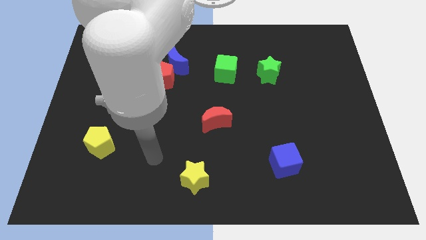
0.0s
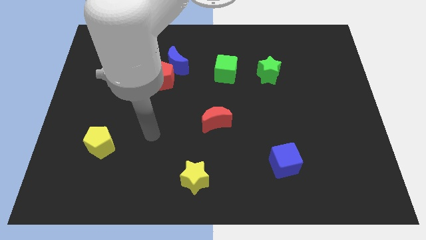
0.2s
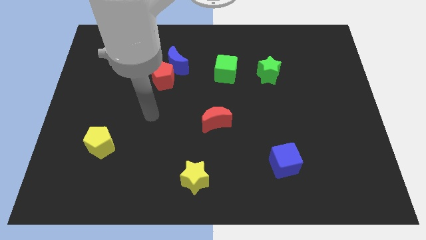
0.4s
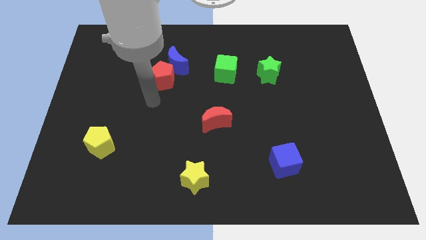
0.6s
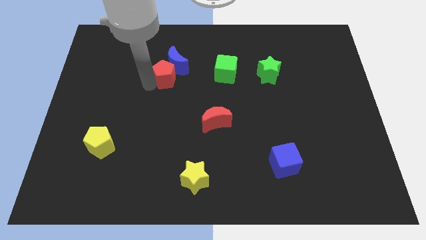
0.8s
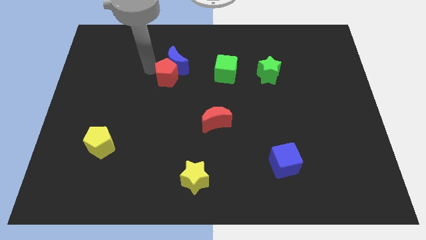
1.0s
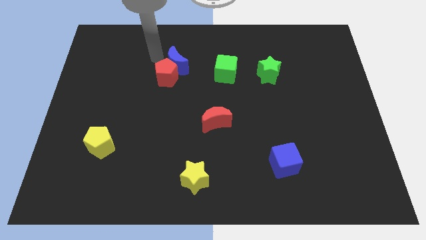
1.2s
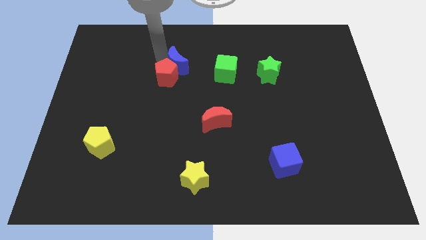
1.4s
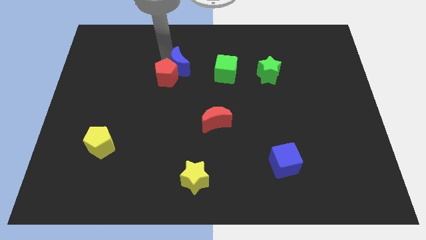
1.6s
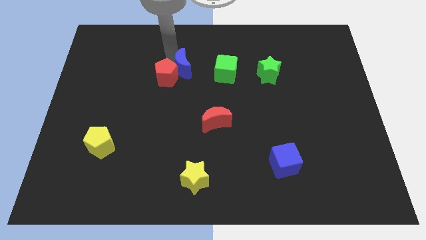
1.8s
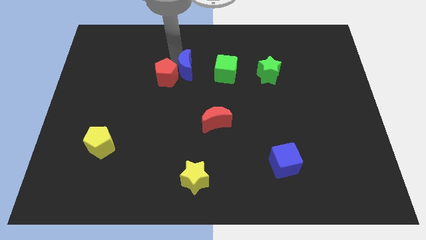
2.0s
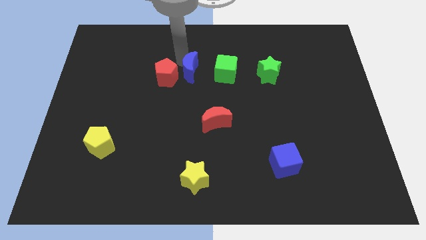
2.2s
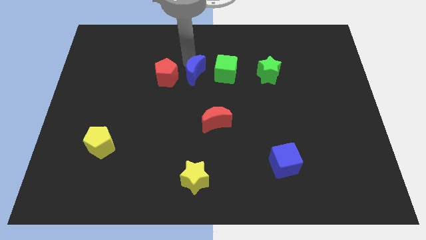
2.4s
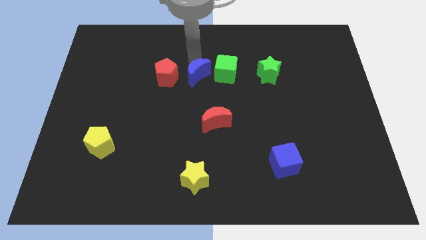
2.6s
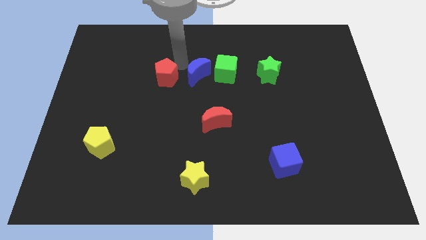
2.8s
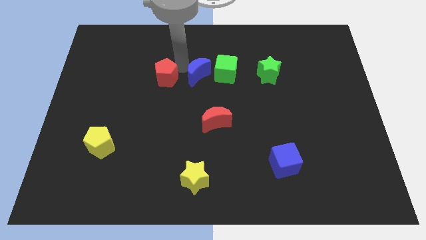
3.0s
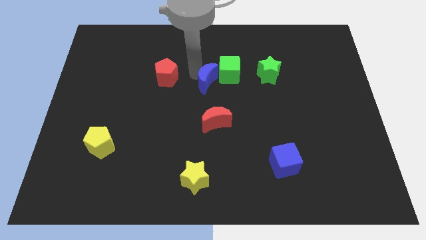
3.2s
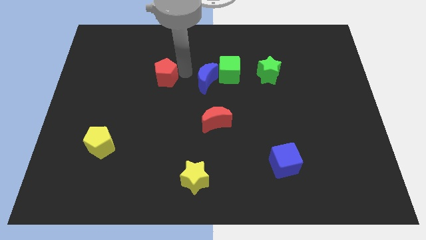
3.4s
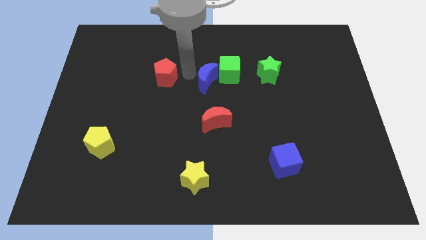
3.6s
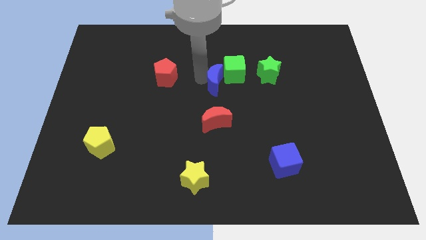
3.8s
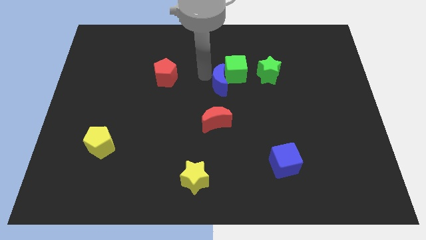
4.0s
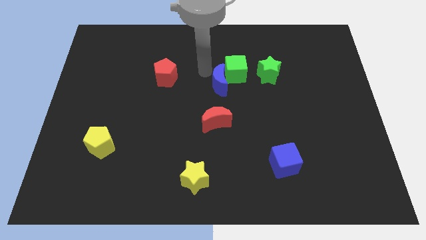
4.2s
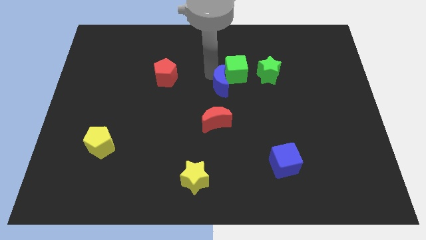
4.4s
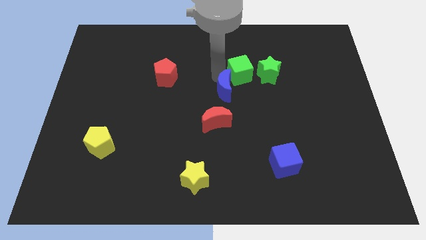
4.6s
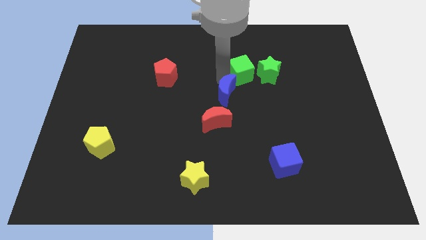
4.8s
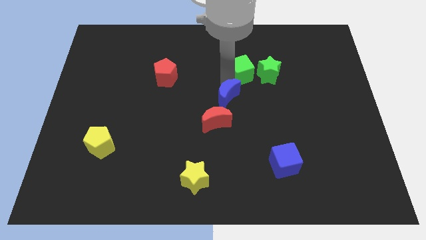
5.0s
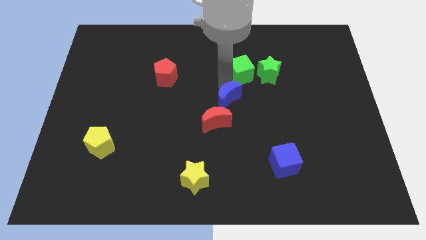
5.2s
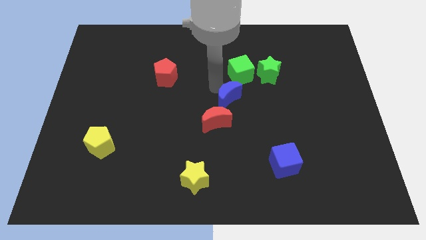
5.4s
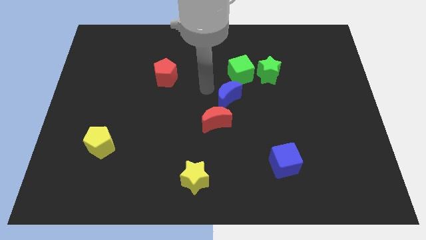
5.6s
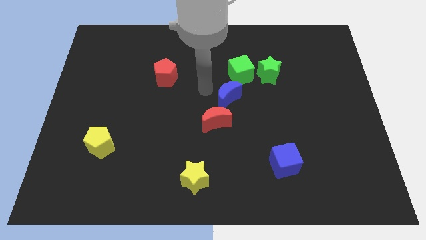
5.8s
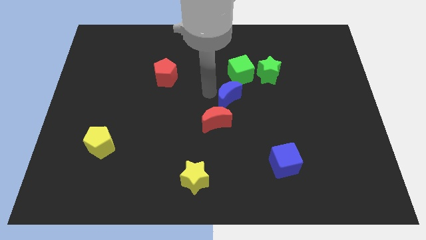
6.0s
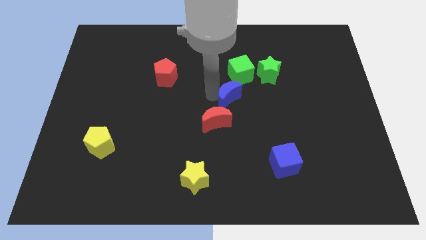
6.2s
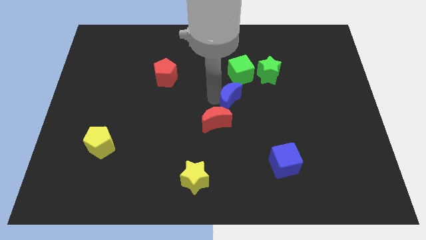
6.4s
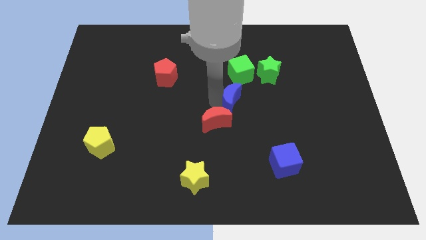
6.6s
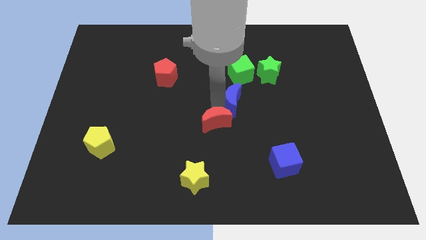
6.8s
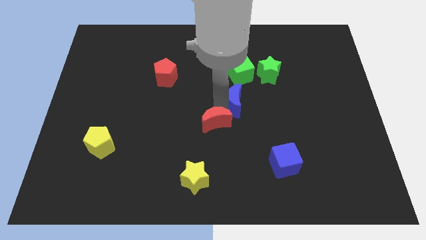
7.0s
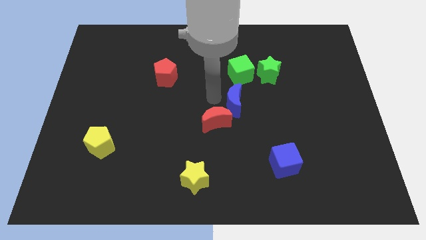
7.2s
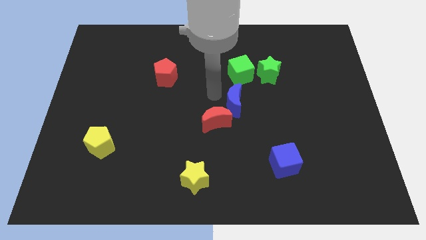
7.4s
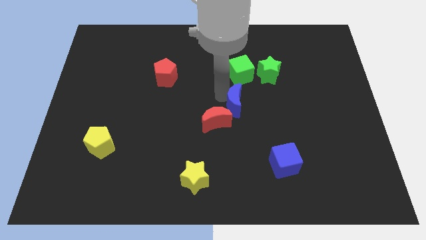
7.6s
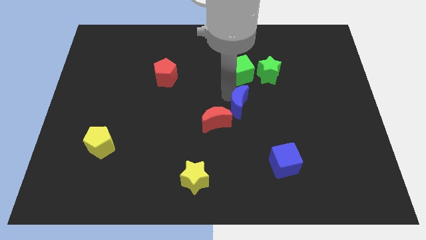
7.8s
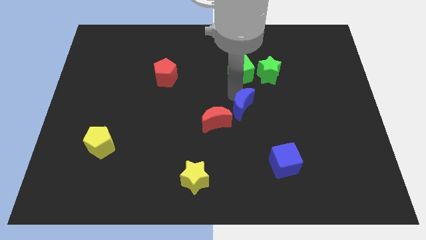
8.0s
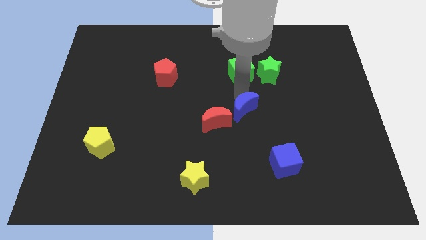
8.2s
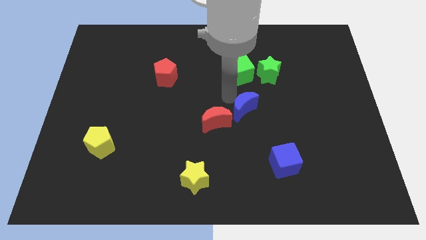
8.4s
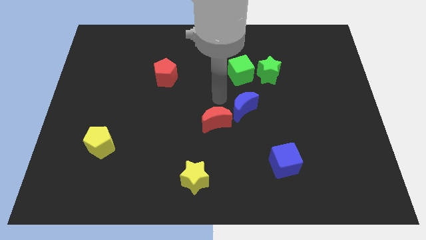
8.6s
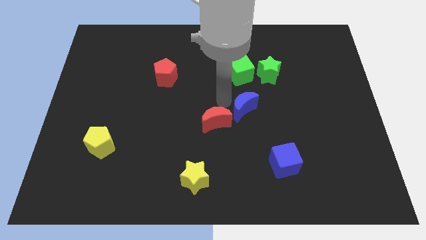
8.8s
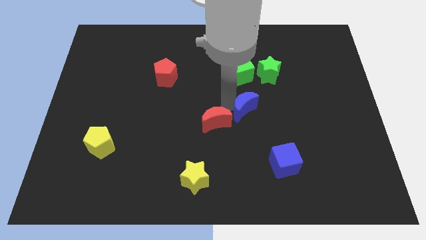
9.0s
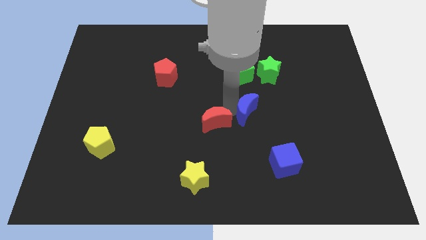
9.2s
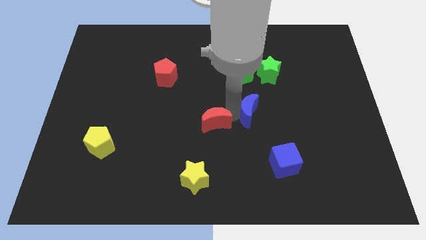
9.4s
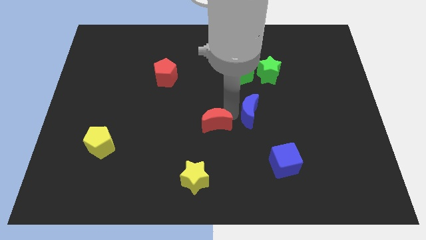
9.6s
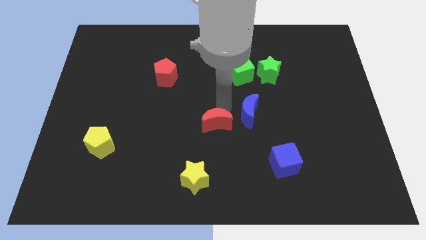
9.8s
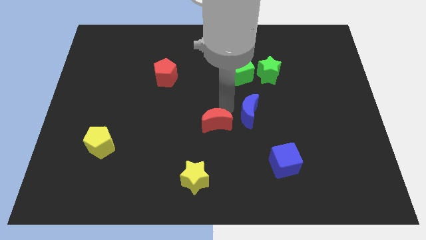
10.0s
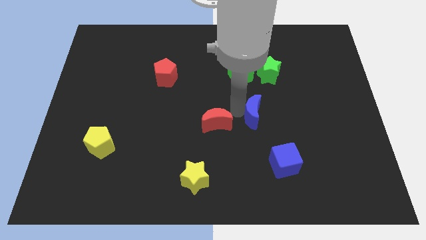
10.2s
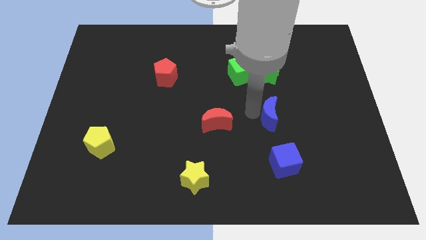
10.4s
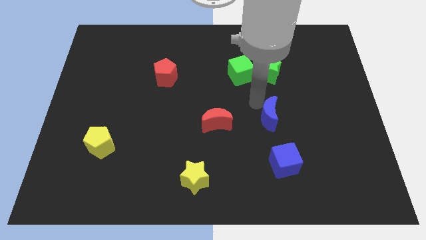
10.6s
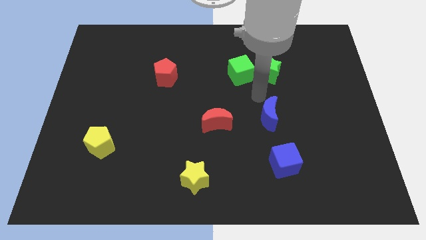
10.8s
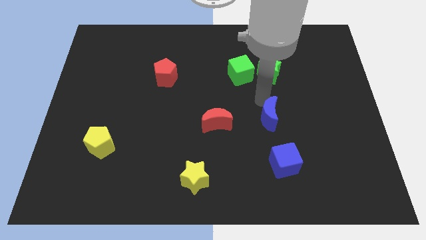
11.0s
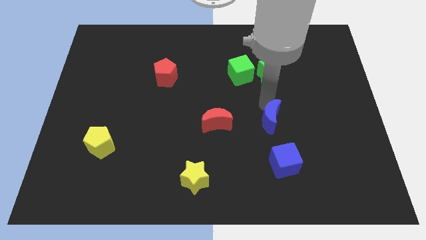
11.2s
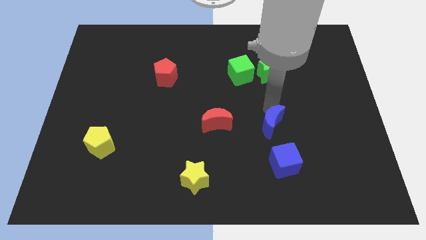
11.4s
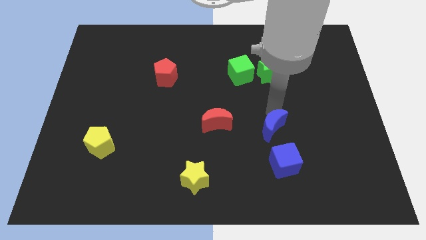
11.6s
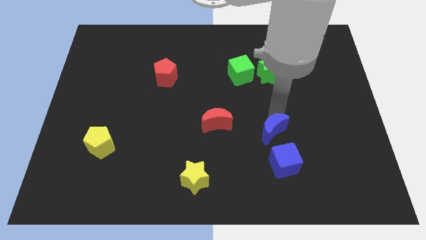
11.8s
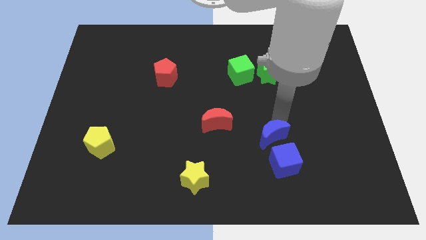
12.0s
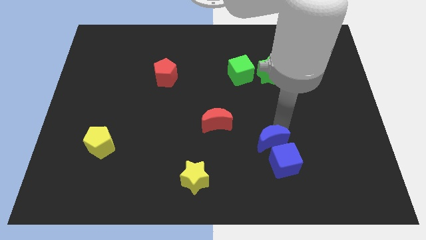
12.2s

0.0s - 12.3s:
slide the blue moon next to the blue cube

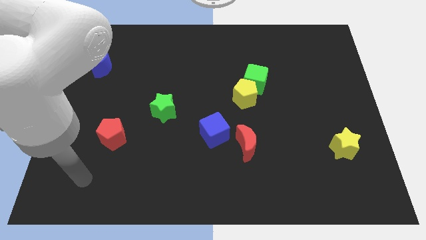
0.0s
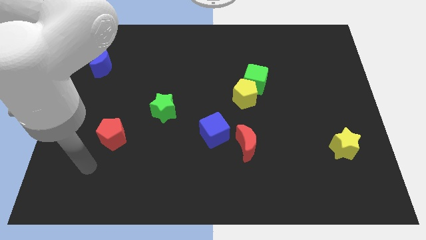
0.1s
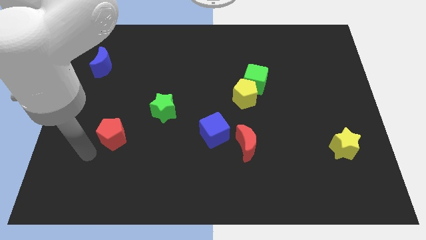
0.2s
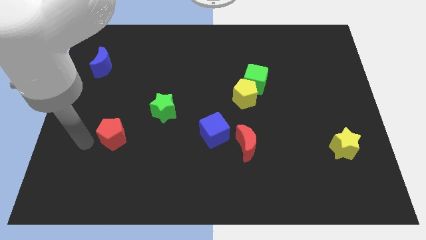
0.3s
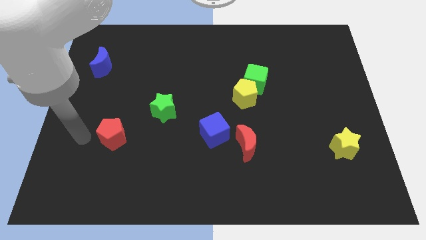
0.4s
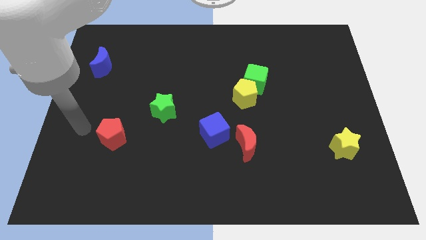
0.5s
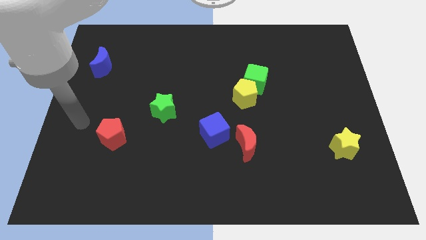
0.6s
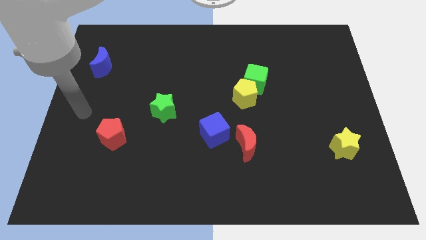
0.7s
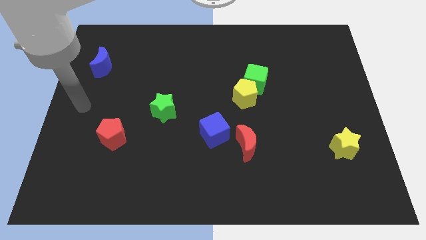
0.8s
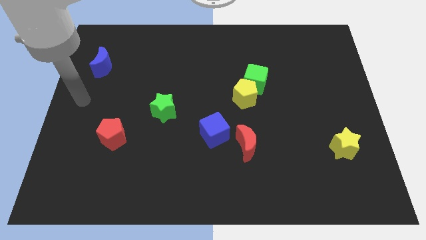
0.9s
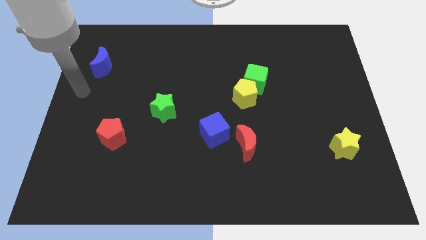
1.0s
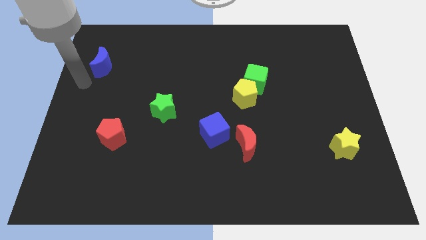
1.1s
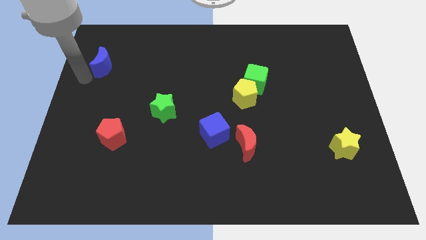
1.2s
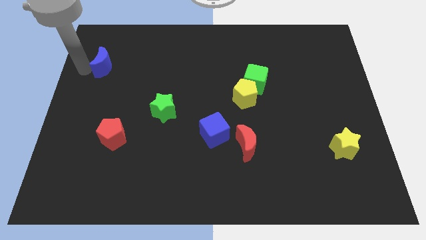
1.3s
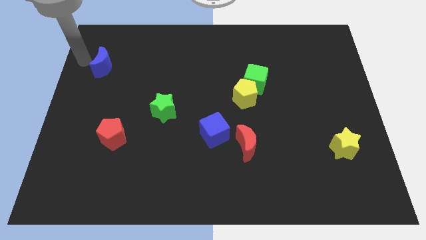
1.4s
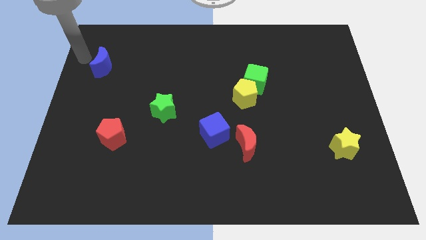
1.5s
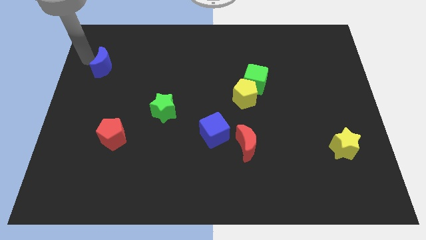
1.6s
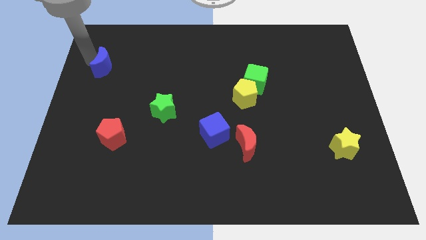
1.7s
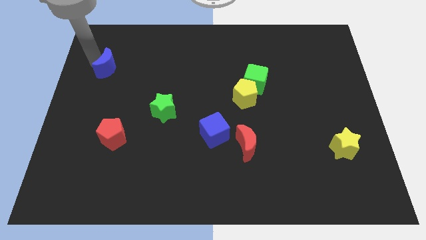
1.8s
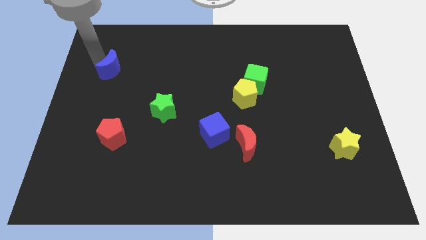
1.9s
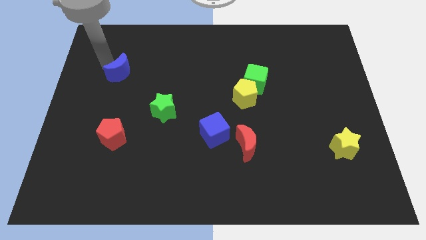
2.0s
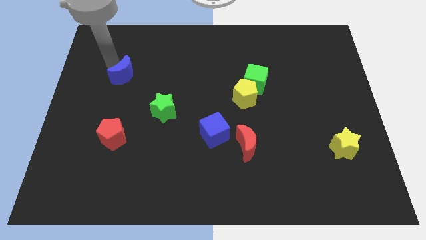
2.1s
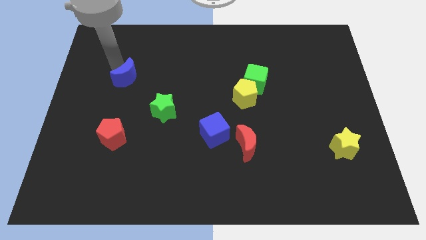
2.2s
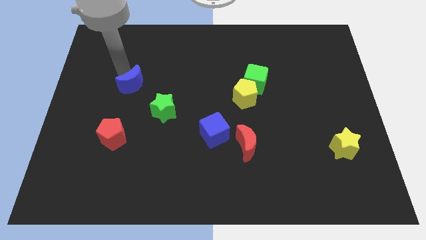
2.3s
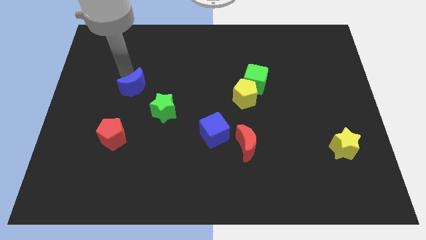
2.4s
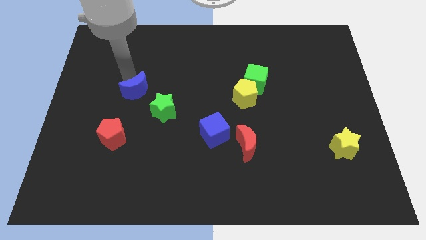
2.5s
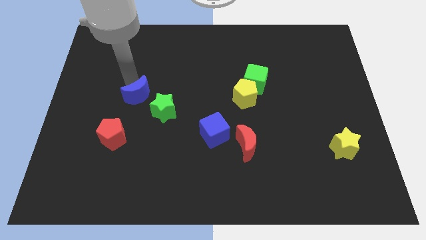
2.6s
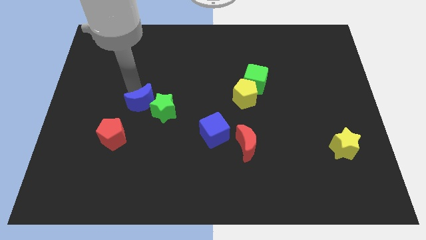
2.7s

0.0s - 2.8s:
put the blue moon to the green star
